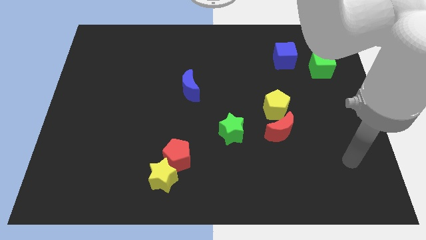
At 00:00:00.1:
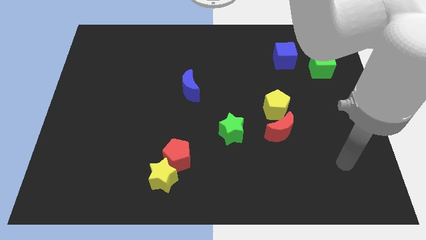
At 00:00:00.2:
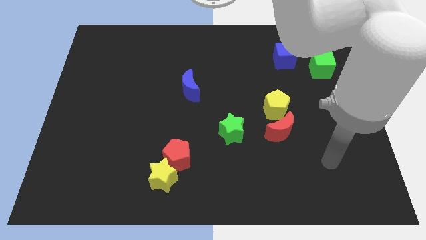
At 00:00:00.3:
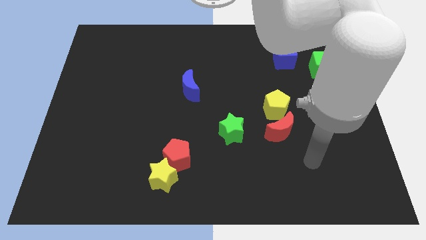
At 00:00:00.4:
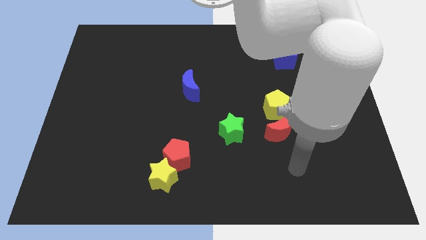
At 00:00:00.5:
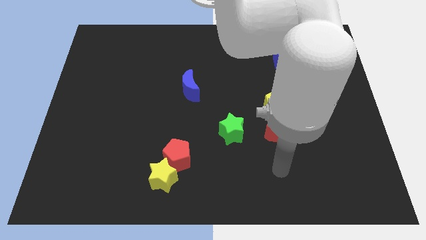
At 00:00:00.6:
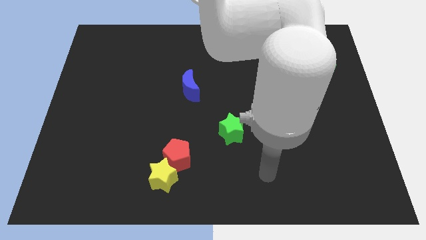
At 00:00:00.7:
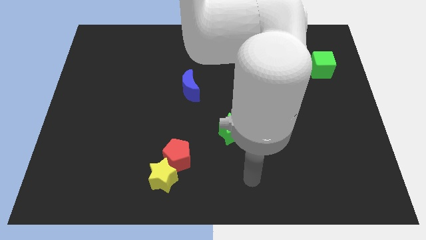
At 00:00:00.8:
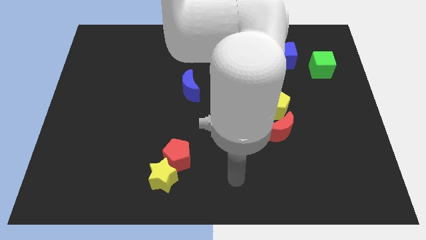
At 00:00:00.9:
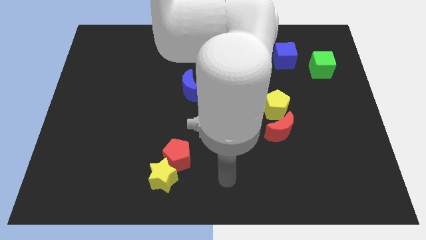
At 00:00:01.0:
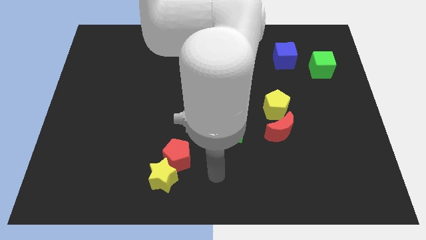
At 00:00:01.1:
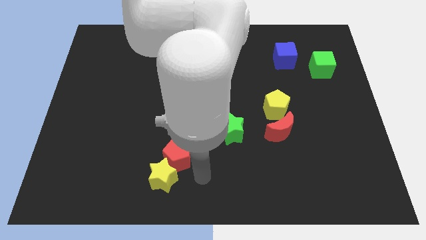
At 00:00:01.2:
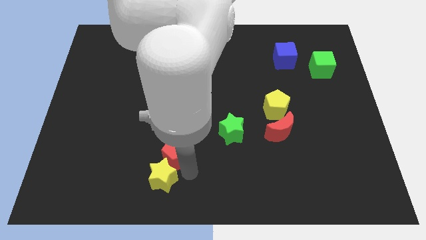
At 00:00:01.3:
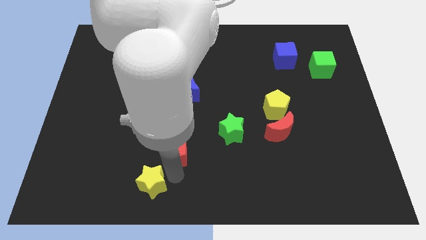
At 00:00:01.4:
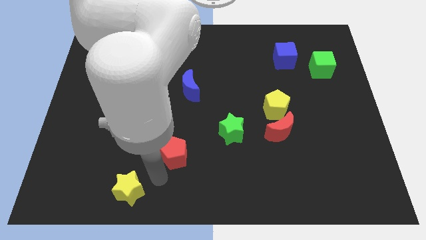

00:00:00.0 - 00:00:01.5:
move the red pentagon away from the yellow star

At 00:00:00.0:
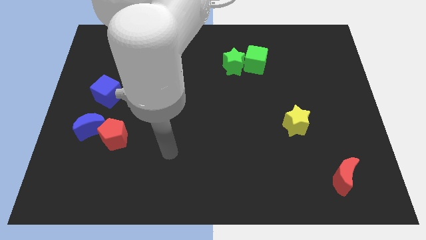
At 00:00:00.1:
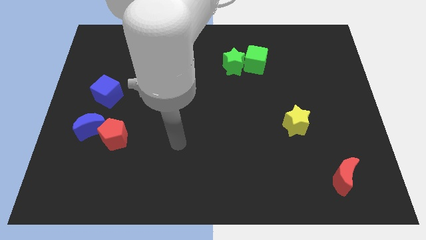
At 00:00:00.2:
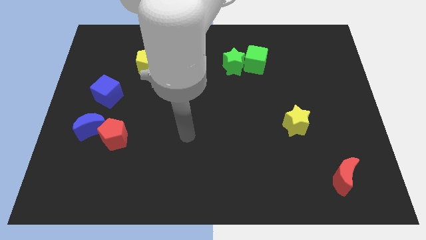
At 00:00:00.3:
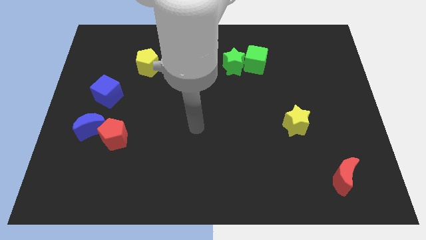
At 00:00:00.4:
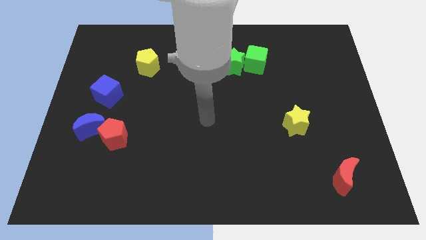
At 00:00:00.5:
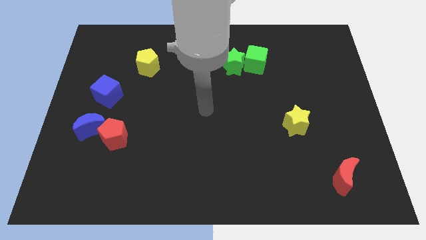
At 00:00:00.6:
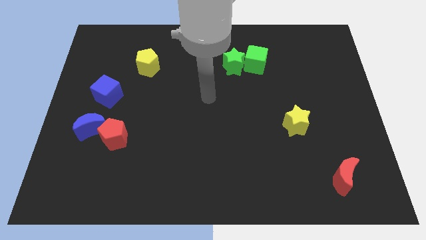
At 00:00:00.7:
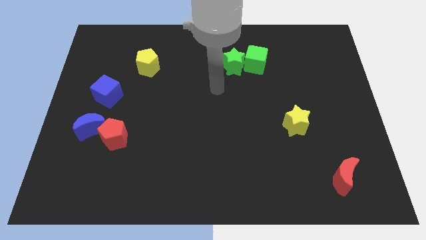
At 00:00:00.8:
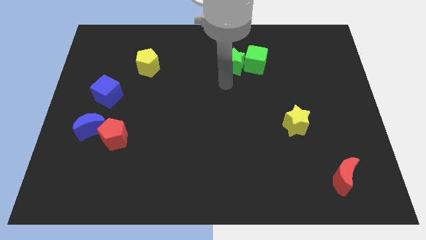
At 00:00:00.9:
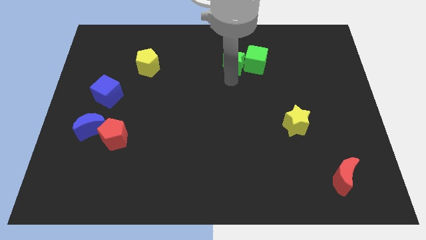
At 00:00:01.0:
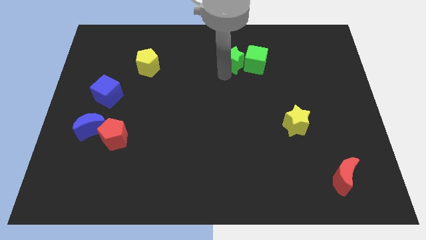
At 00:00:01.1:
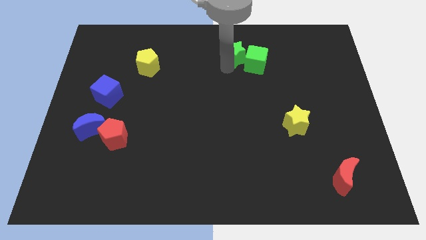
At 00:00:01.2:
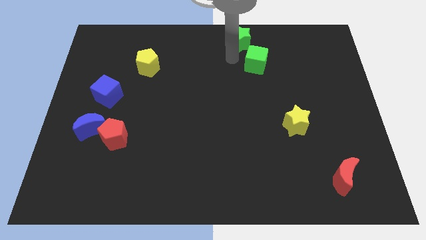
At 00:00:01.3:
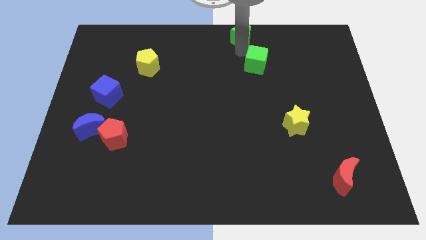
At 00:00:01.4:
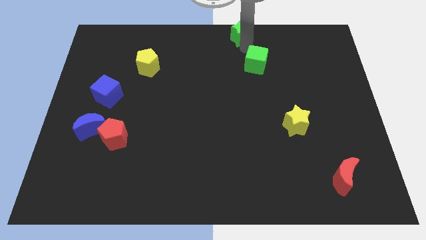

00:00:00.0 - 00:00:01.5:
separate the green cube from the green star

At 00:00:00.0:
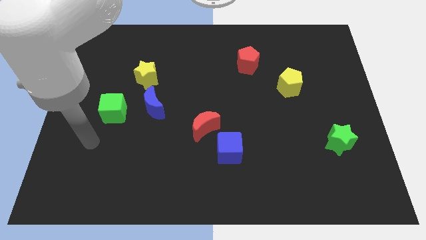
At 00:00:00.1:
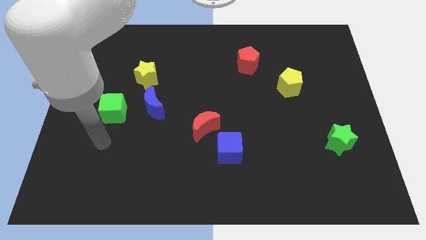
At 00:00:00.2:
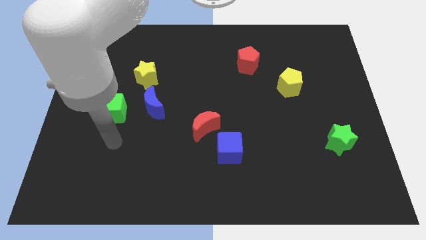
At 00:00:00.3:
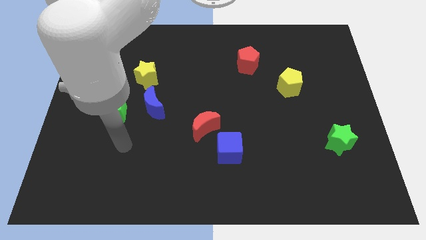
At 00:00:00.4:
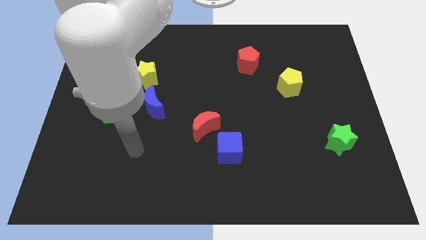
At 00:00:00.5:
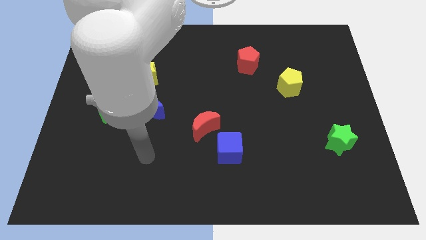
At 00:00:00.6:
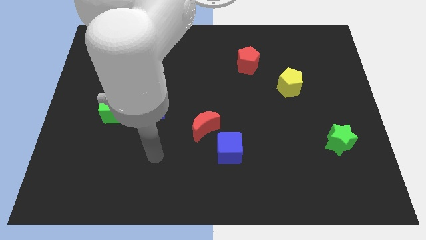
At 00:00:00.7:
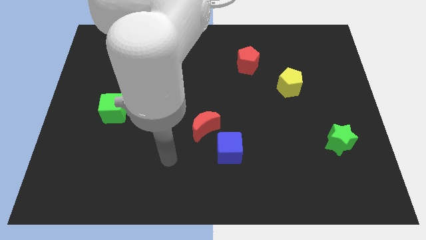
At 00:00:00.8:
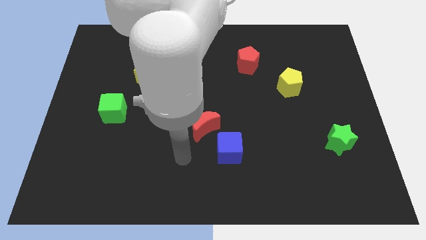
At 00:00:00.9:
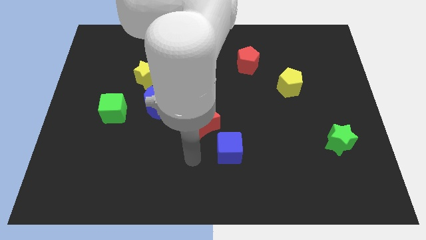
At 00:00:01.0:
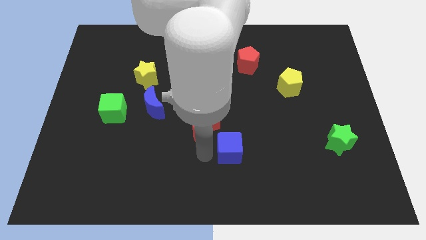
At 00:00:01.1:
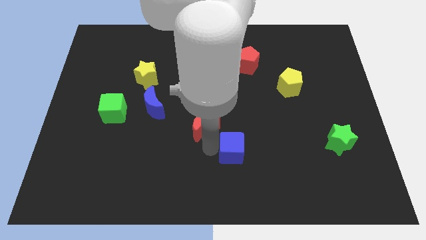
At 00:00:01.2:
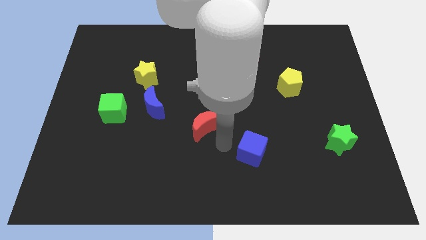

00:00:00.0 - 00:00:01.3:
pull the red moon apart from the blue cube

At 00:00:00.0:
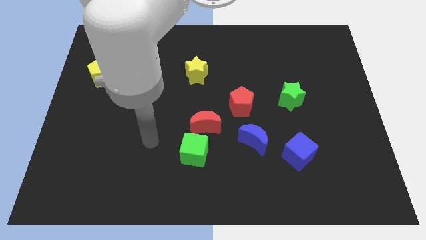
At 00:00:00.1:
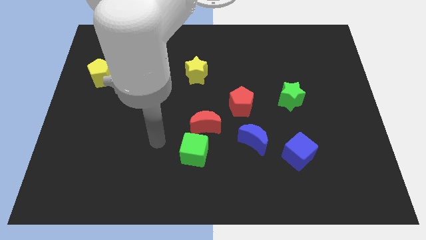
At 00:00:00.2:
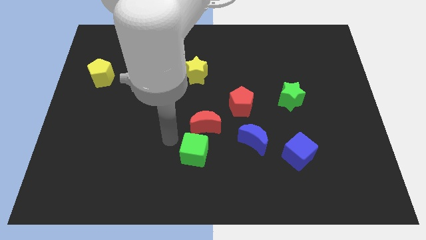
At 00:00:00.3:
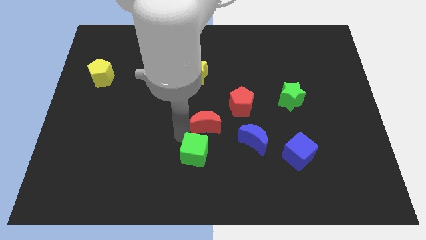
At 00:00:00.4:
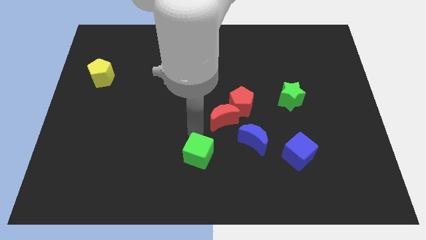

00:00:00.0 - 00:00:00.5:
pull the green cube apart from the red moon

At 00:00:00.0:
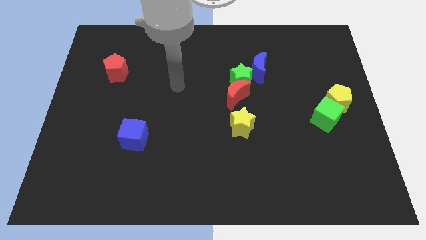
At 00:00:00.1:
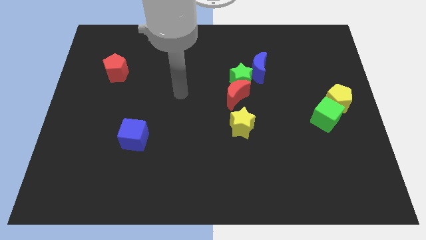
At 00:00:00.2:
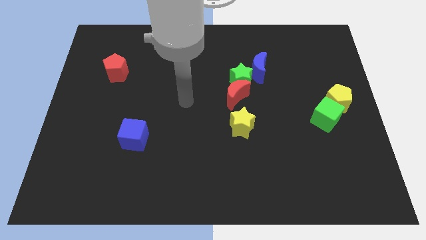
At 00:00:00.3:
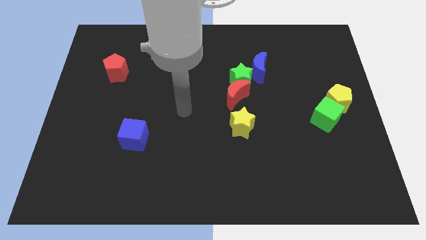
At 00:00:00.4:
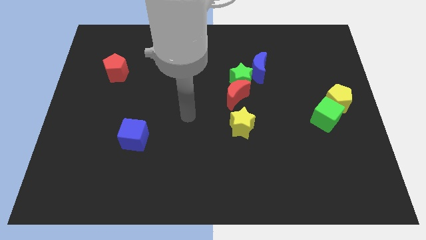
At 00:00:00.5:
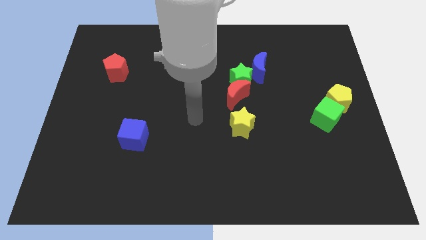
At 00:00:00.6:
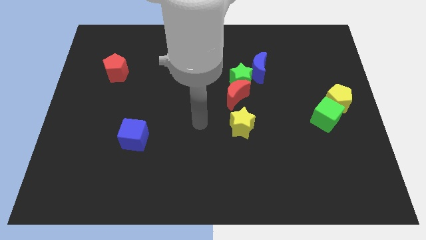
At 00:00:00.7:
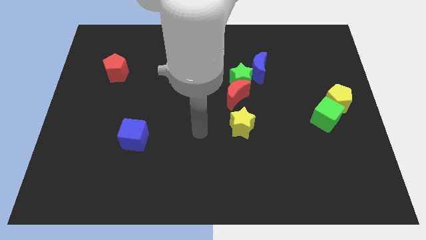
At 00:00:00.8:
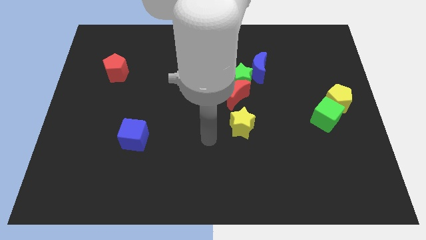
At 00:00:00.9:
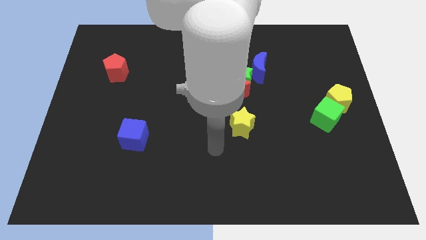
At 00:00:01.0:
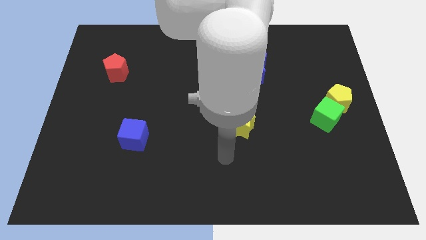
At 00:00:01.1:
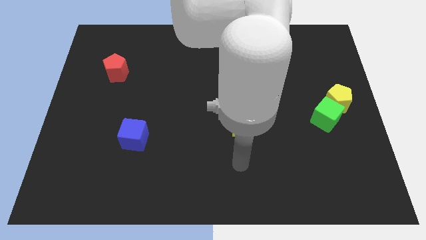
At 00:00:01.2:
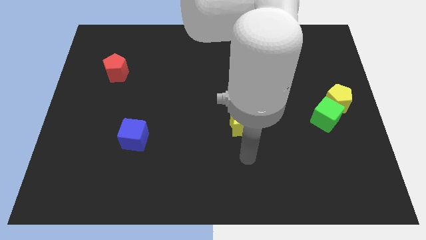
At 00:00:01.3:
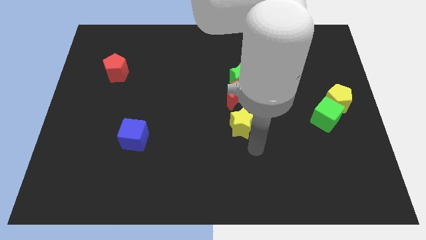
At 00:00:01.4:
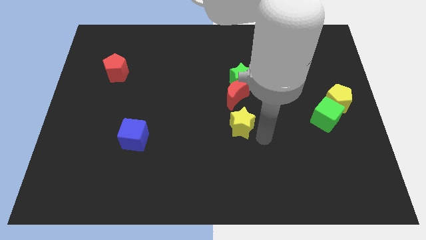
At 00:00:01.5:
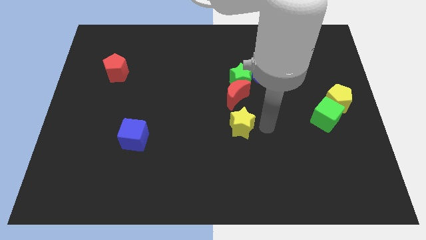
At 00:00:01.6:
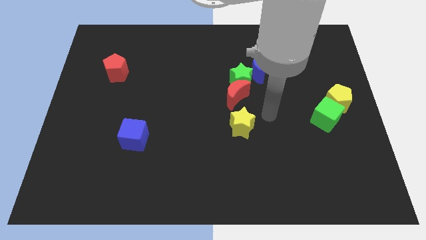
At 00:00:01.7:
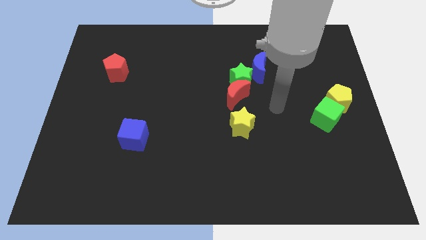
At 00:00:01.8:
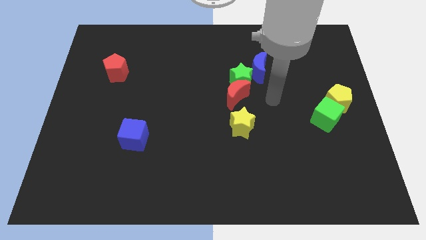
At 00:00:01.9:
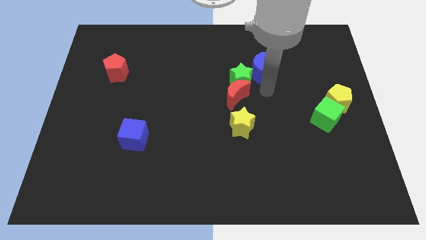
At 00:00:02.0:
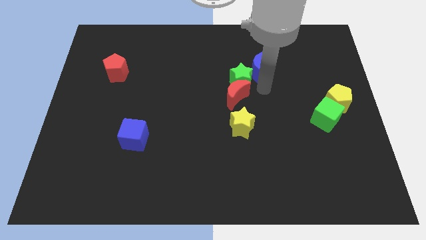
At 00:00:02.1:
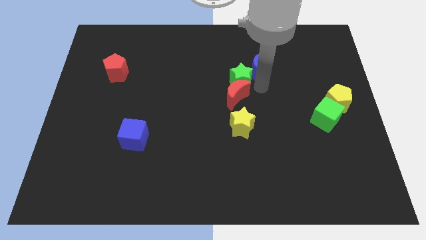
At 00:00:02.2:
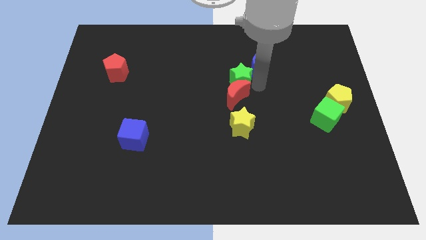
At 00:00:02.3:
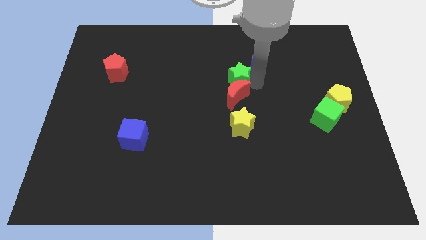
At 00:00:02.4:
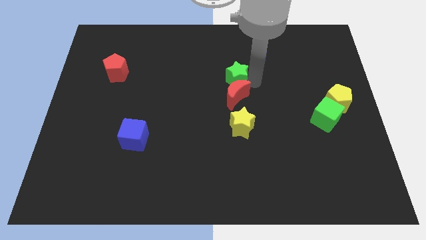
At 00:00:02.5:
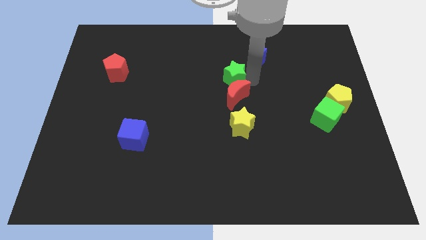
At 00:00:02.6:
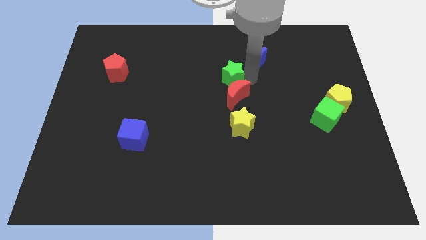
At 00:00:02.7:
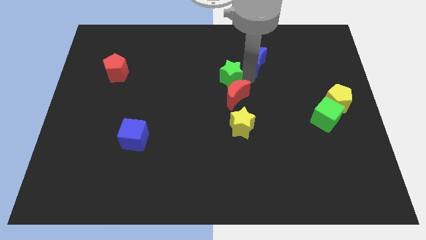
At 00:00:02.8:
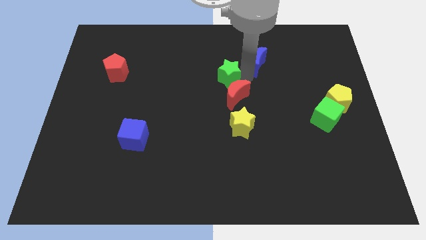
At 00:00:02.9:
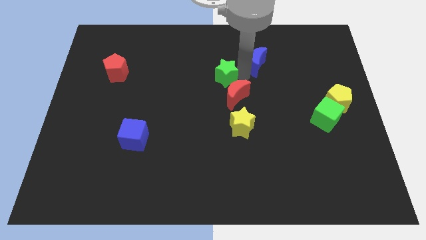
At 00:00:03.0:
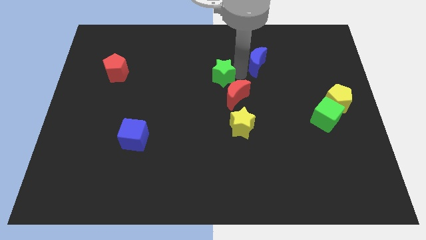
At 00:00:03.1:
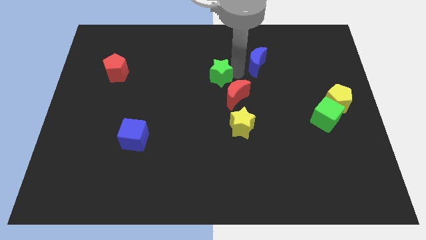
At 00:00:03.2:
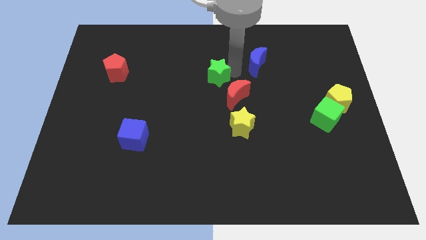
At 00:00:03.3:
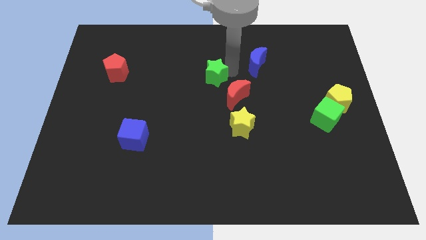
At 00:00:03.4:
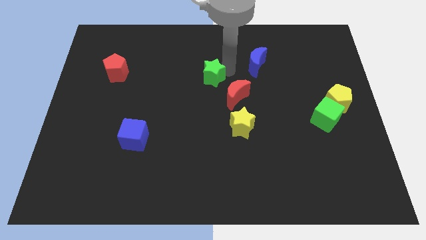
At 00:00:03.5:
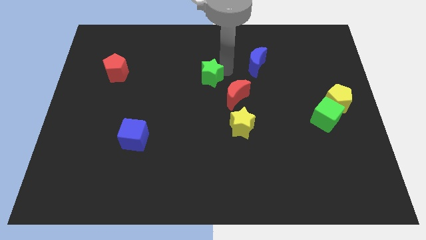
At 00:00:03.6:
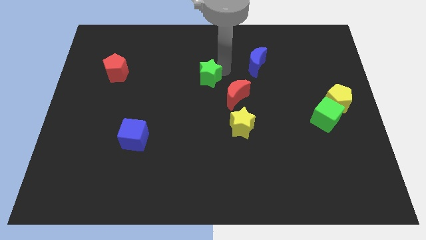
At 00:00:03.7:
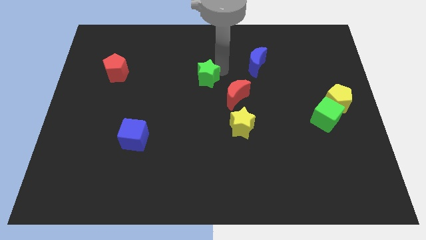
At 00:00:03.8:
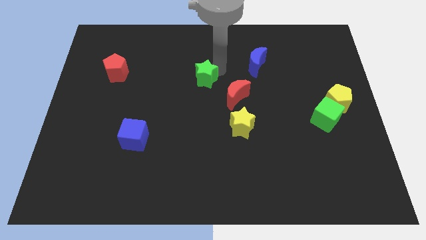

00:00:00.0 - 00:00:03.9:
pull the green star apart from the red moon and blue moon

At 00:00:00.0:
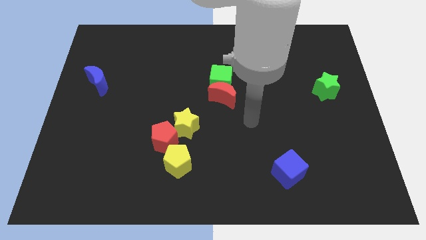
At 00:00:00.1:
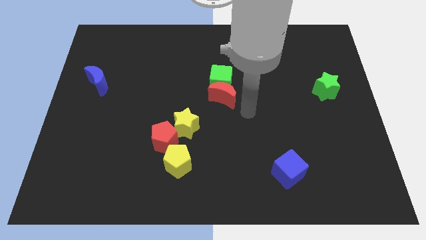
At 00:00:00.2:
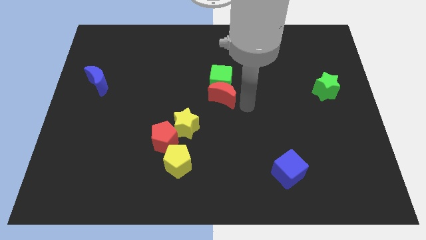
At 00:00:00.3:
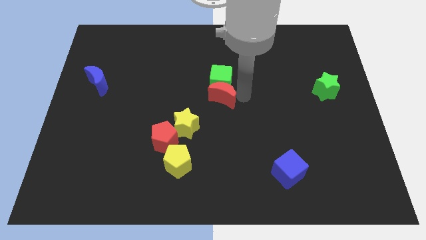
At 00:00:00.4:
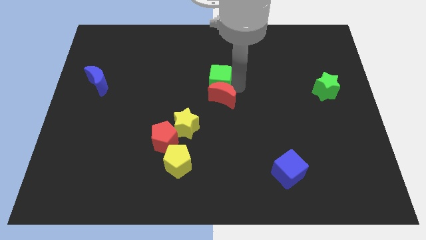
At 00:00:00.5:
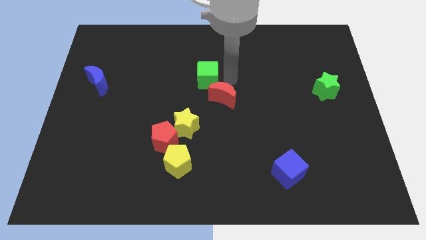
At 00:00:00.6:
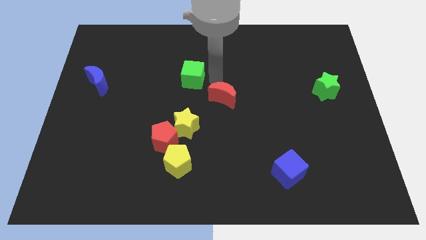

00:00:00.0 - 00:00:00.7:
separate the red moon from the green cube
